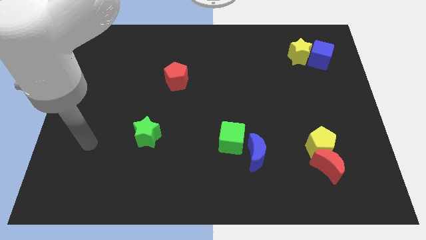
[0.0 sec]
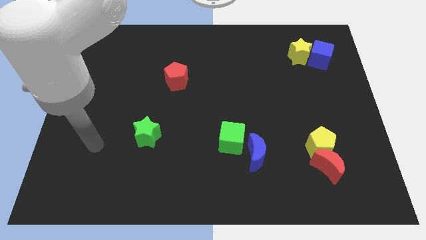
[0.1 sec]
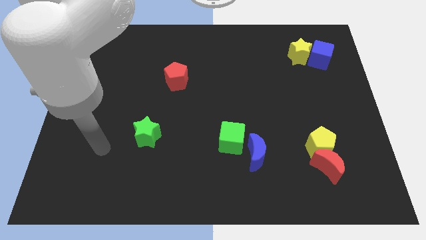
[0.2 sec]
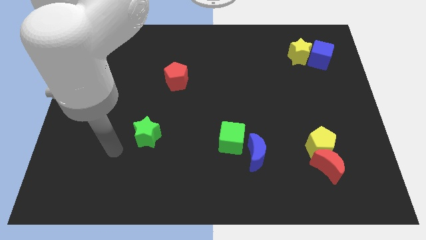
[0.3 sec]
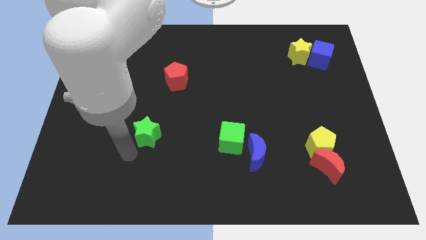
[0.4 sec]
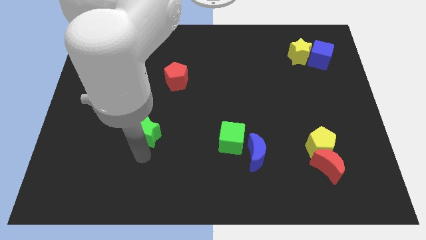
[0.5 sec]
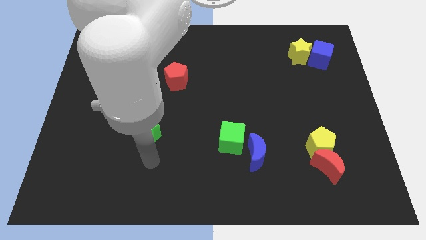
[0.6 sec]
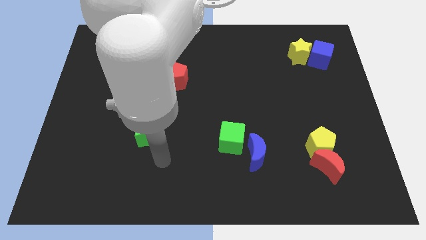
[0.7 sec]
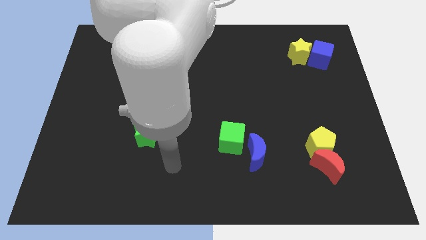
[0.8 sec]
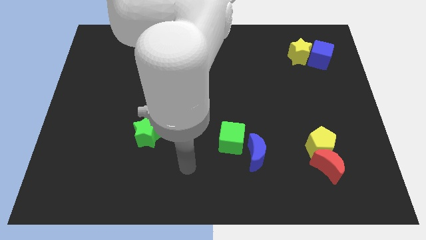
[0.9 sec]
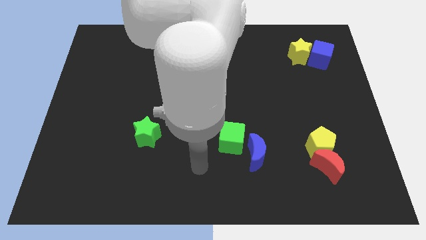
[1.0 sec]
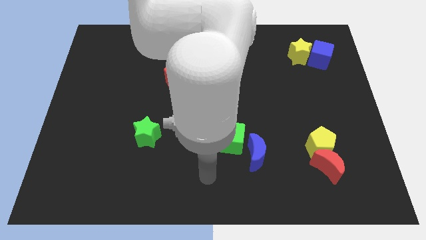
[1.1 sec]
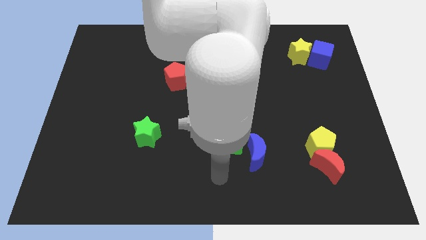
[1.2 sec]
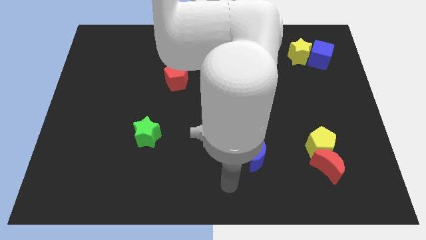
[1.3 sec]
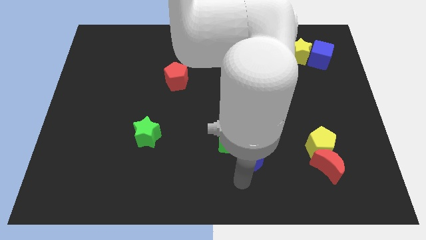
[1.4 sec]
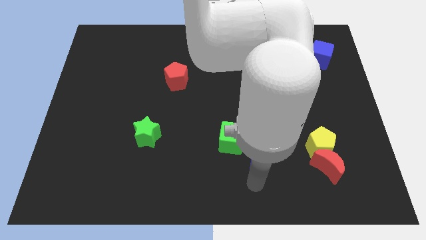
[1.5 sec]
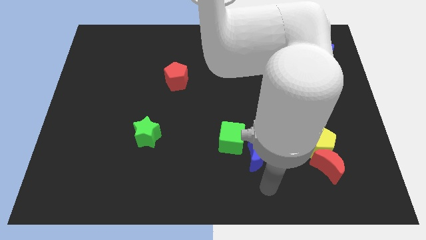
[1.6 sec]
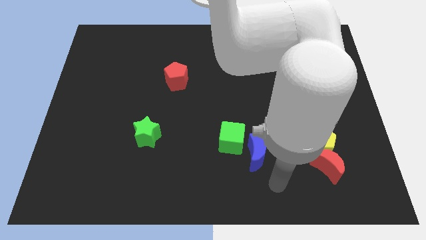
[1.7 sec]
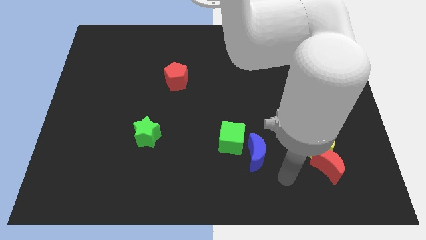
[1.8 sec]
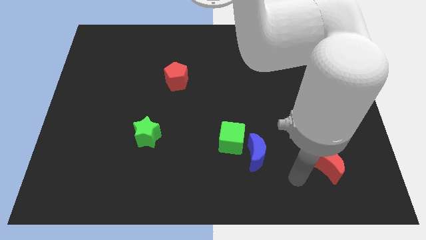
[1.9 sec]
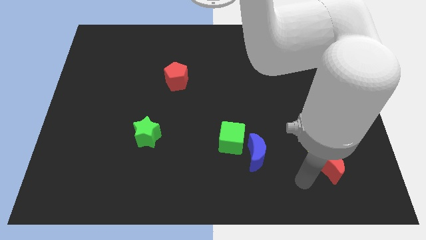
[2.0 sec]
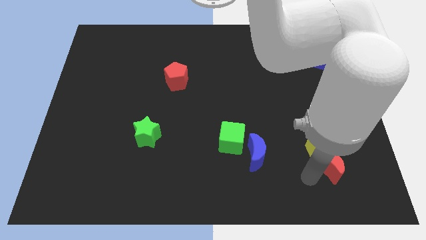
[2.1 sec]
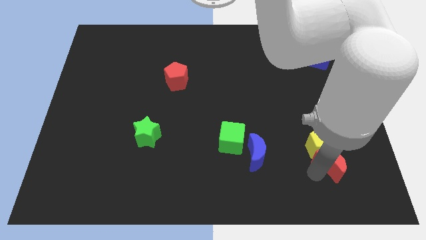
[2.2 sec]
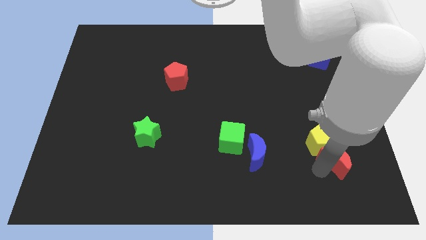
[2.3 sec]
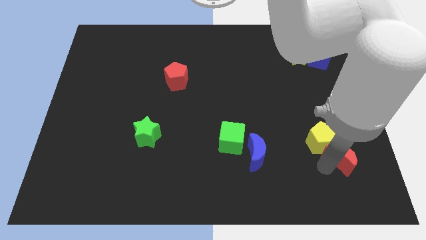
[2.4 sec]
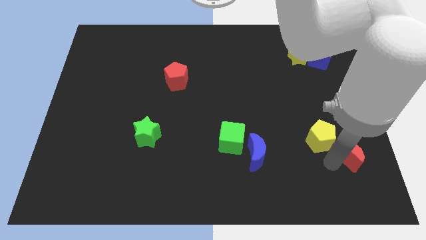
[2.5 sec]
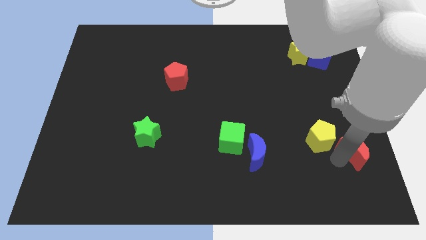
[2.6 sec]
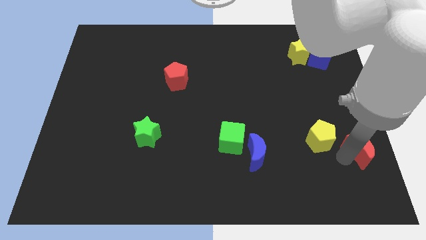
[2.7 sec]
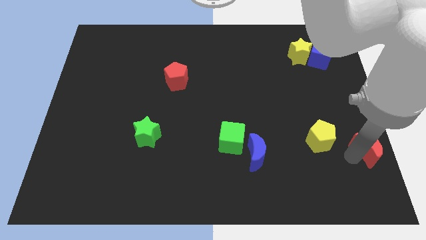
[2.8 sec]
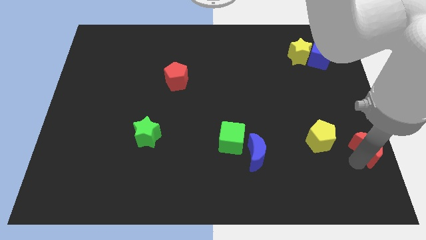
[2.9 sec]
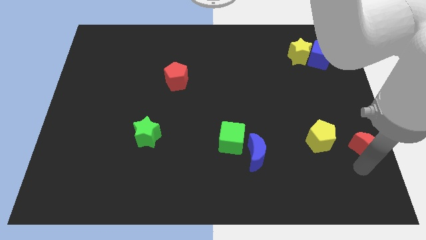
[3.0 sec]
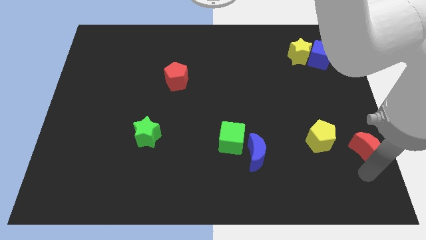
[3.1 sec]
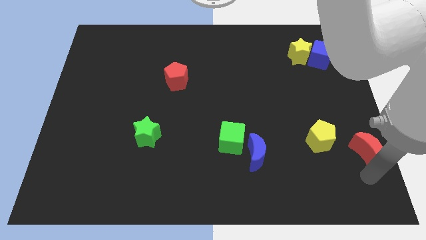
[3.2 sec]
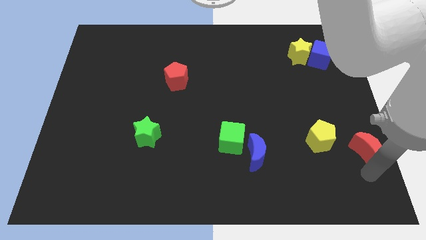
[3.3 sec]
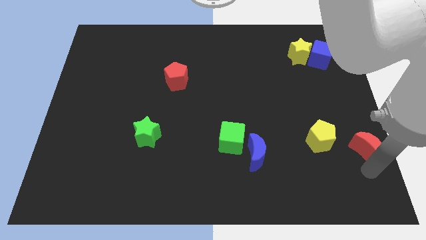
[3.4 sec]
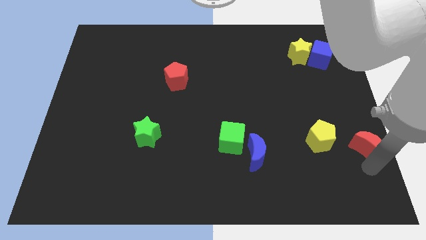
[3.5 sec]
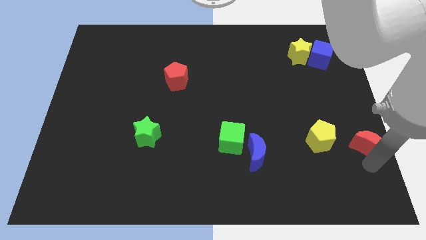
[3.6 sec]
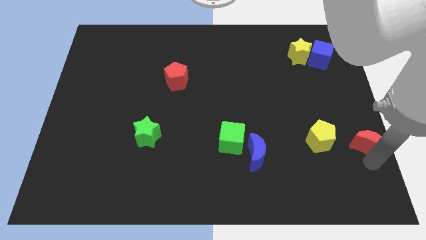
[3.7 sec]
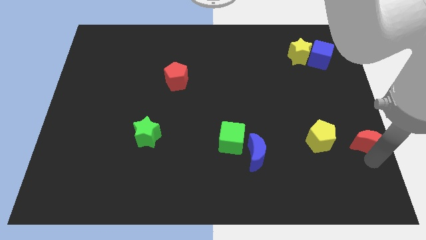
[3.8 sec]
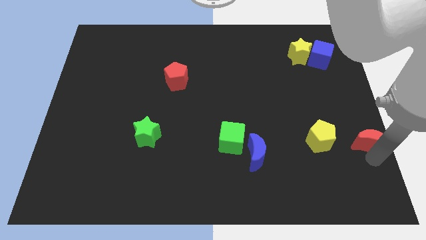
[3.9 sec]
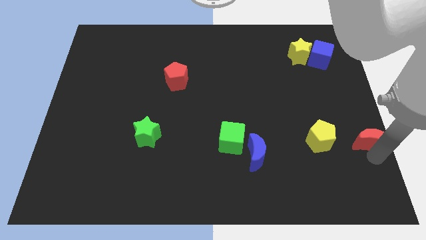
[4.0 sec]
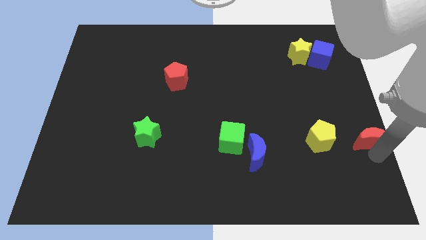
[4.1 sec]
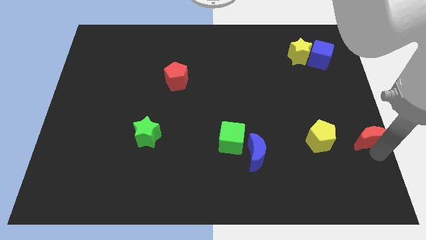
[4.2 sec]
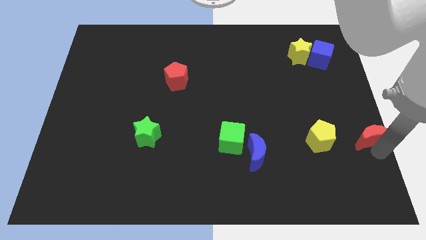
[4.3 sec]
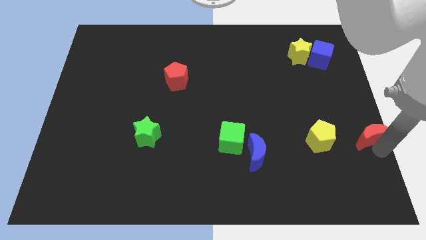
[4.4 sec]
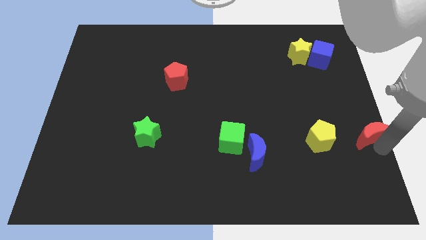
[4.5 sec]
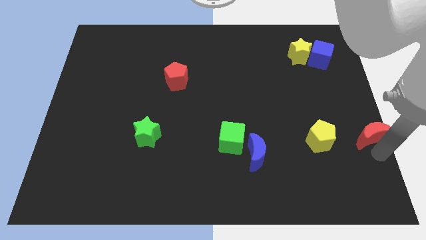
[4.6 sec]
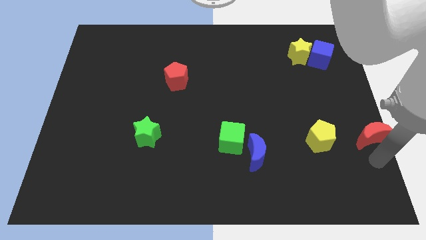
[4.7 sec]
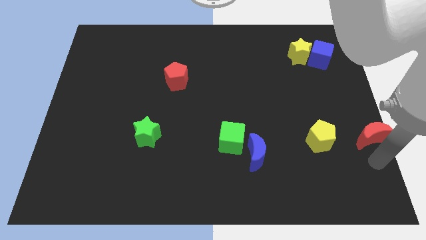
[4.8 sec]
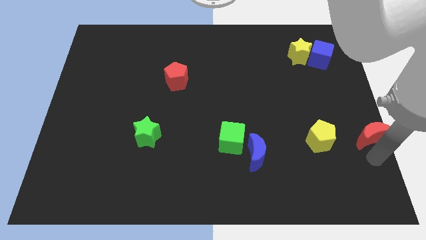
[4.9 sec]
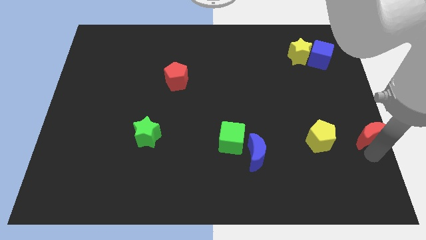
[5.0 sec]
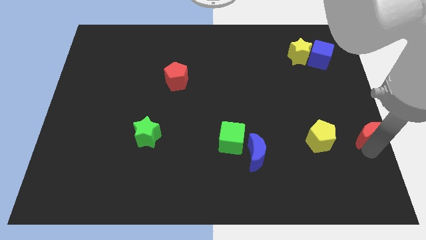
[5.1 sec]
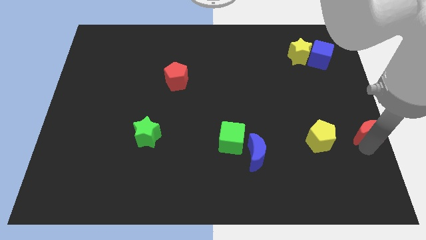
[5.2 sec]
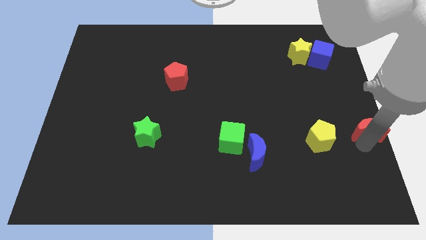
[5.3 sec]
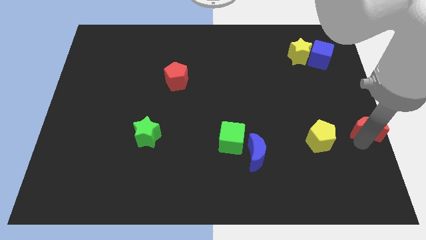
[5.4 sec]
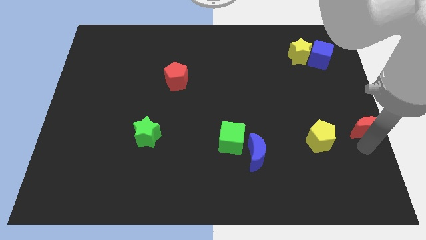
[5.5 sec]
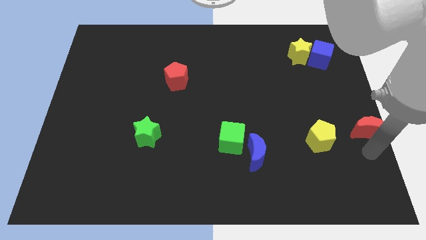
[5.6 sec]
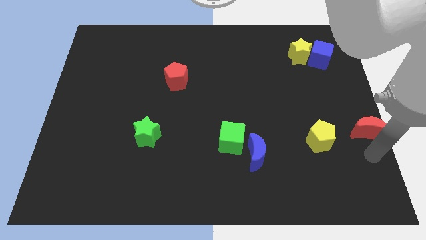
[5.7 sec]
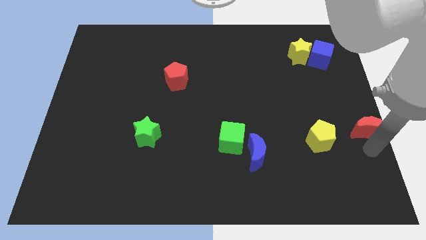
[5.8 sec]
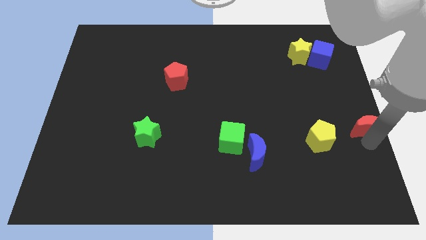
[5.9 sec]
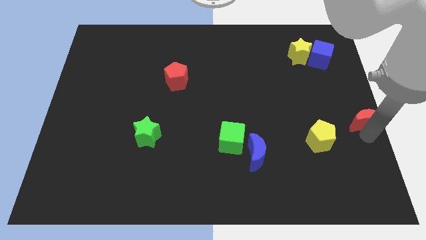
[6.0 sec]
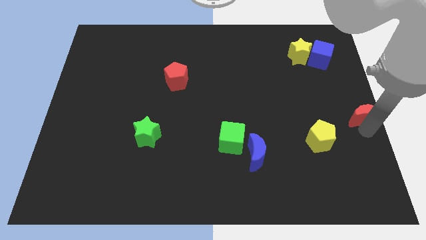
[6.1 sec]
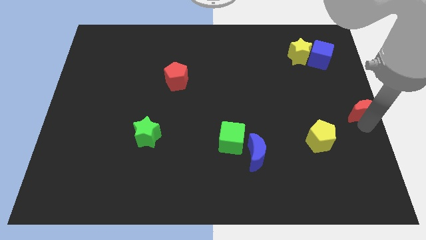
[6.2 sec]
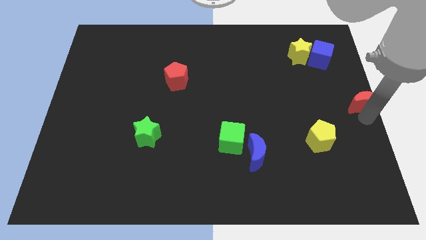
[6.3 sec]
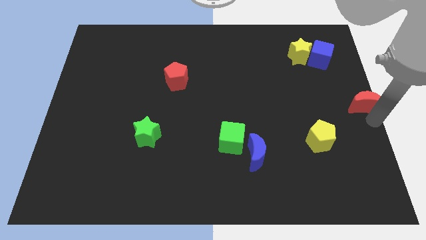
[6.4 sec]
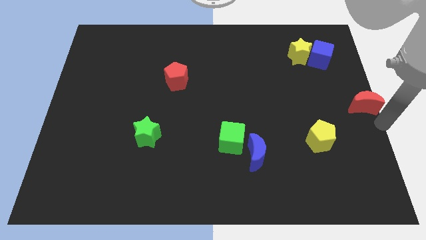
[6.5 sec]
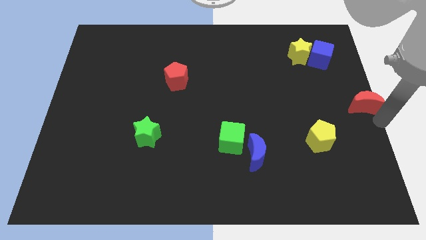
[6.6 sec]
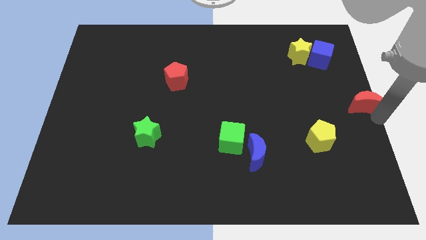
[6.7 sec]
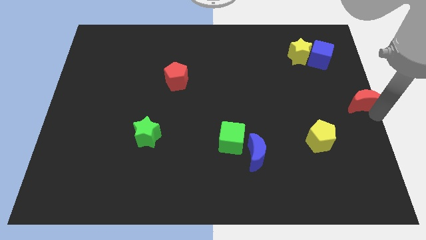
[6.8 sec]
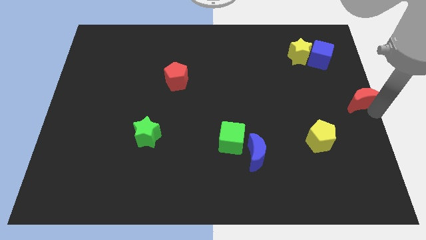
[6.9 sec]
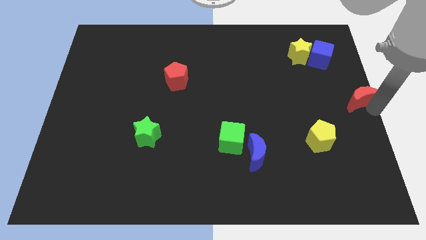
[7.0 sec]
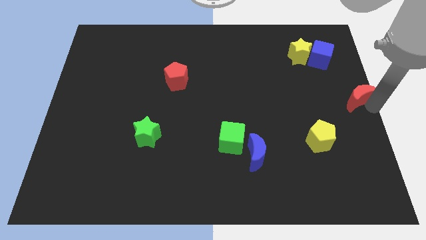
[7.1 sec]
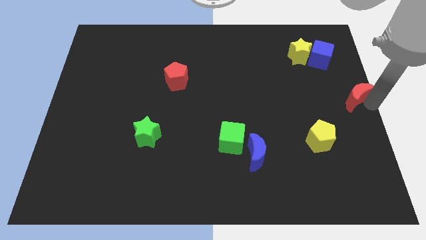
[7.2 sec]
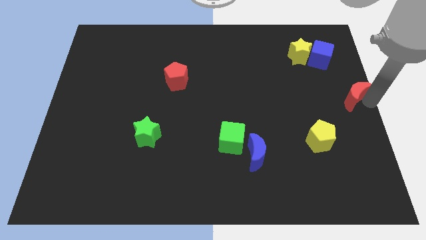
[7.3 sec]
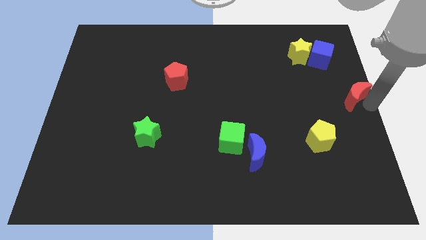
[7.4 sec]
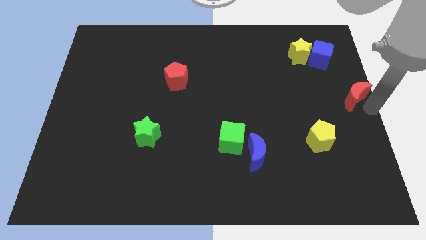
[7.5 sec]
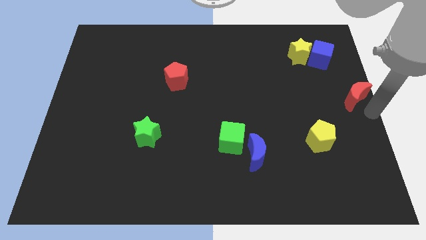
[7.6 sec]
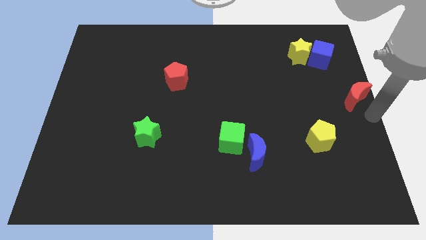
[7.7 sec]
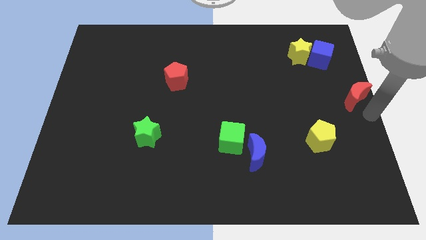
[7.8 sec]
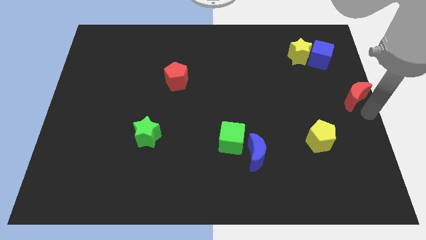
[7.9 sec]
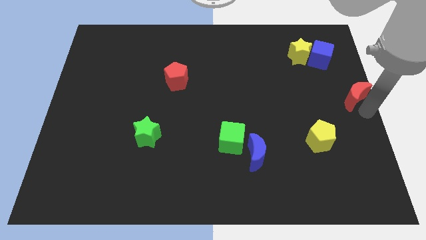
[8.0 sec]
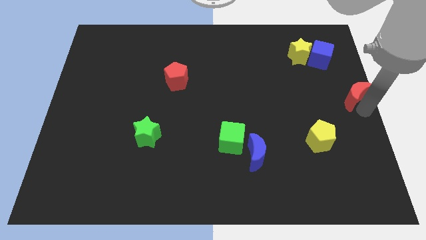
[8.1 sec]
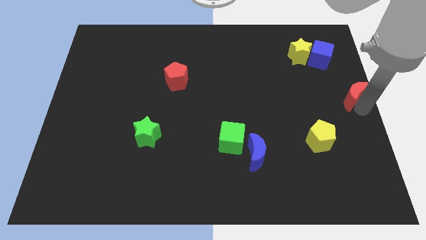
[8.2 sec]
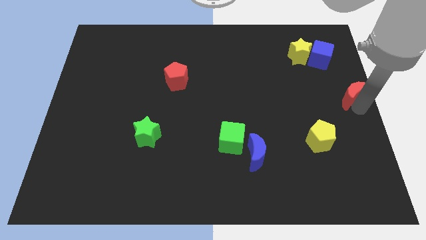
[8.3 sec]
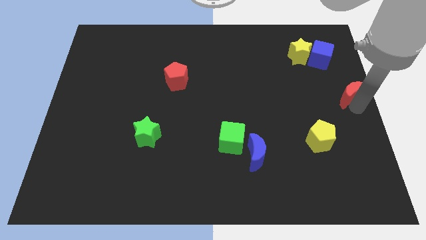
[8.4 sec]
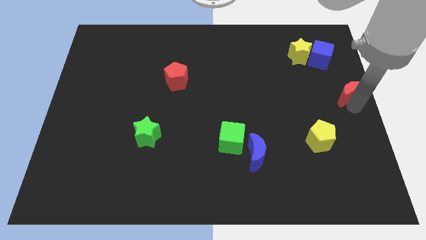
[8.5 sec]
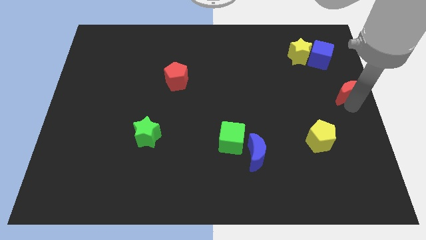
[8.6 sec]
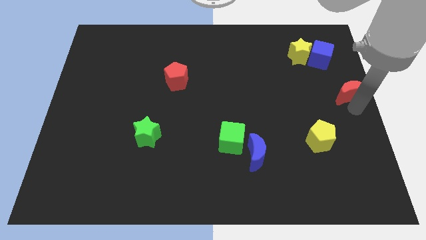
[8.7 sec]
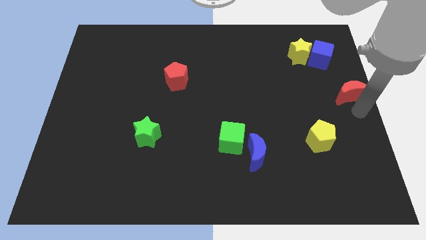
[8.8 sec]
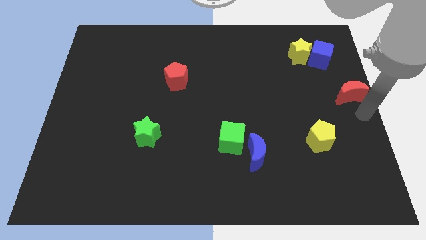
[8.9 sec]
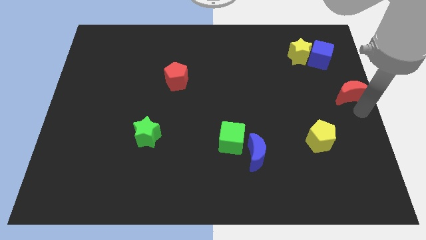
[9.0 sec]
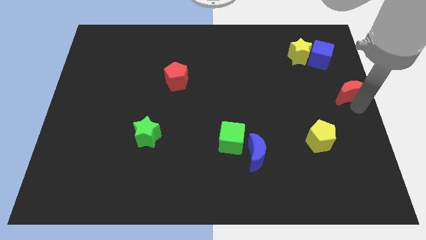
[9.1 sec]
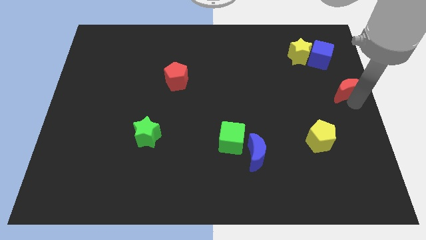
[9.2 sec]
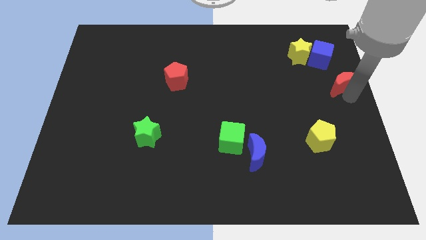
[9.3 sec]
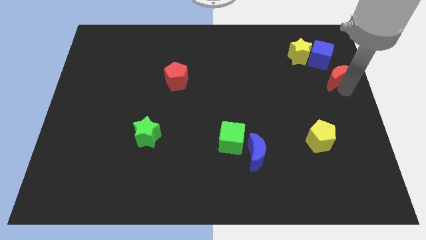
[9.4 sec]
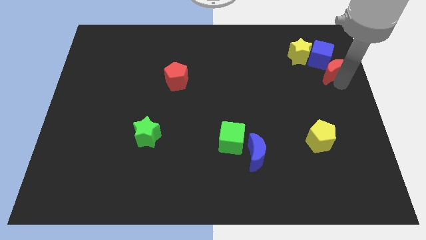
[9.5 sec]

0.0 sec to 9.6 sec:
push the red moon towards the blue cube
